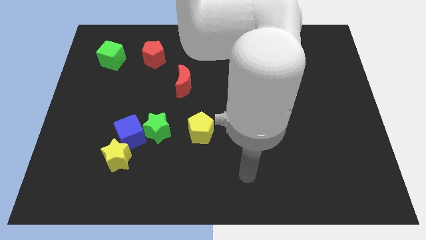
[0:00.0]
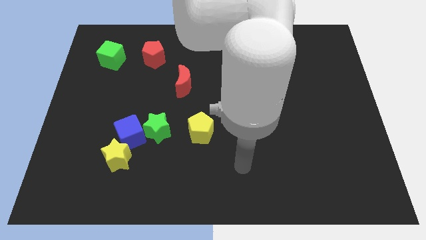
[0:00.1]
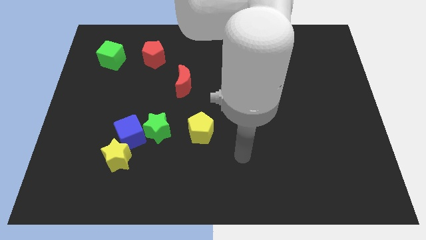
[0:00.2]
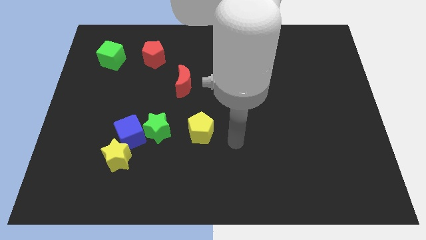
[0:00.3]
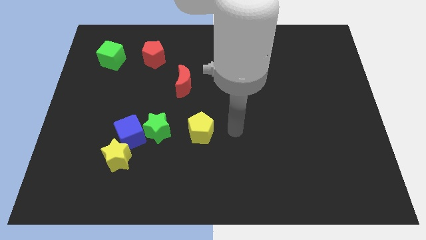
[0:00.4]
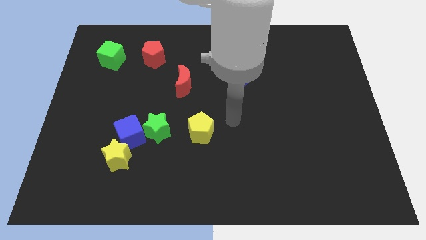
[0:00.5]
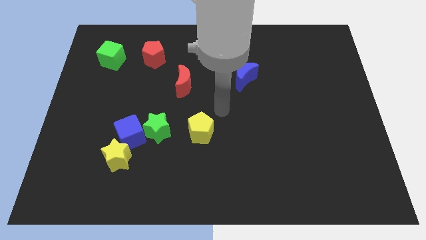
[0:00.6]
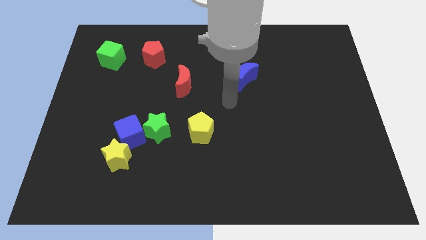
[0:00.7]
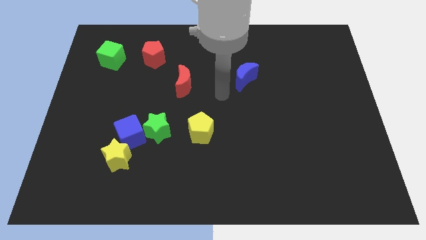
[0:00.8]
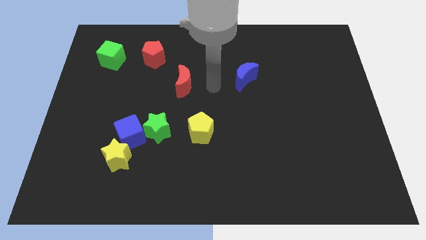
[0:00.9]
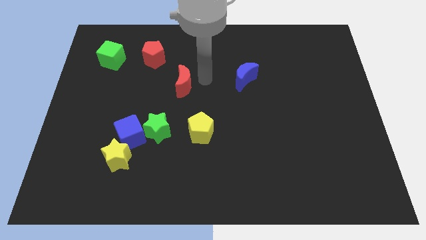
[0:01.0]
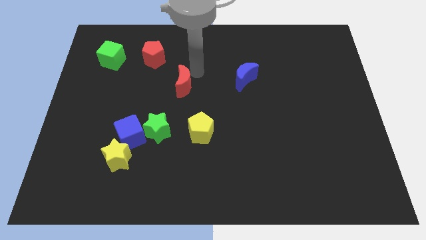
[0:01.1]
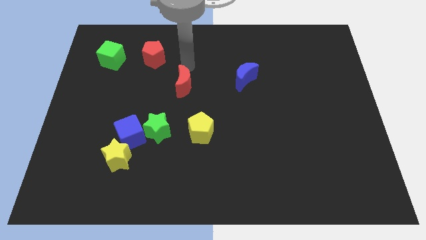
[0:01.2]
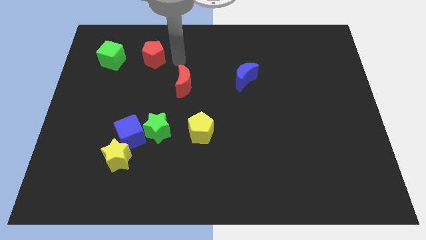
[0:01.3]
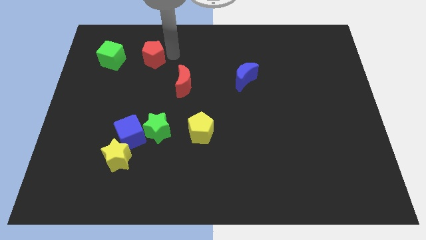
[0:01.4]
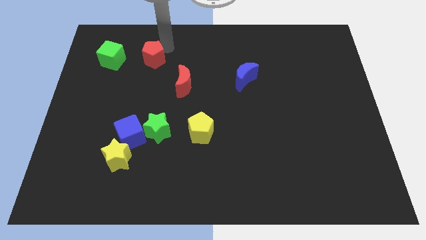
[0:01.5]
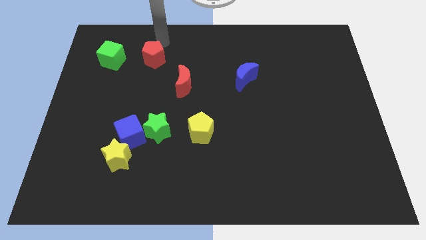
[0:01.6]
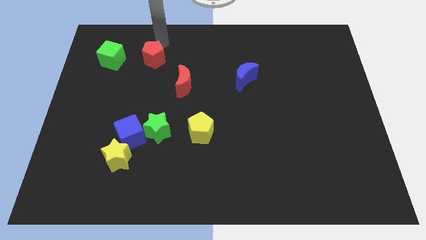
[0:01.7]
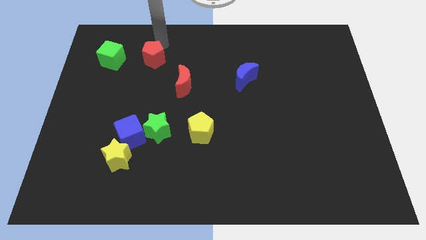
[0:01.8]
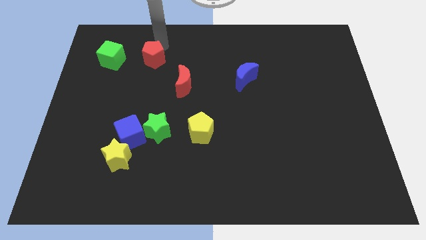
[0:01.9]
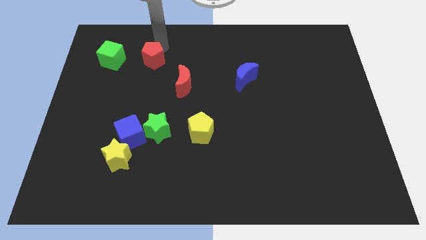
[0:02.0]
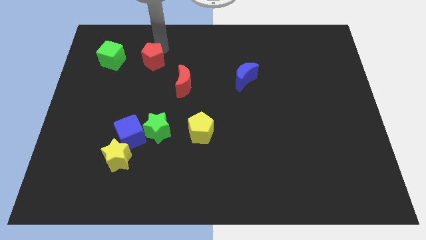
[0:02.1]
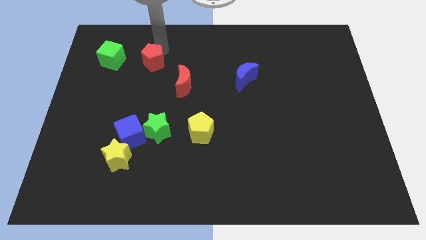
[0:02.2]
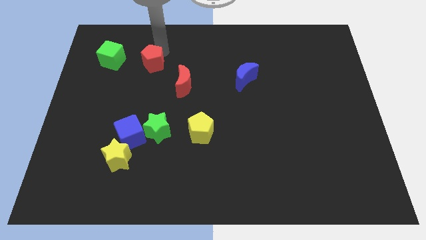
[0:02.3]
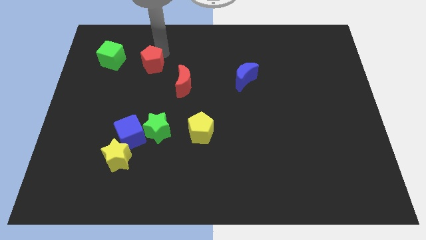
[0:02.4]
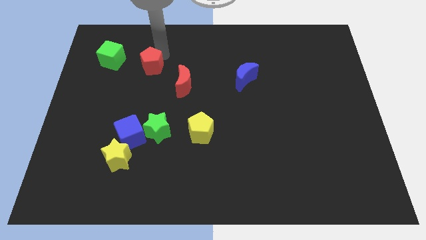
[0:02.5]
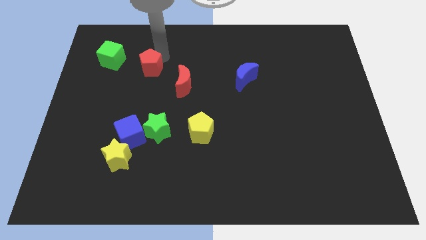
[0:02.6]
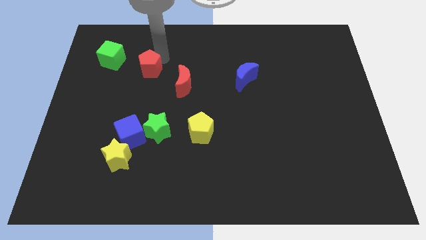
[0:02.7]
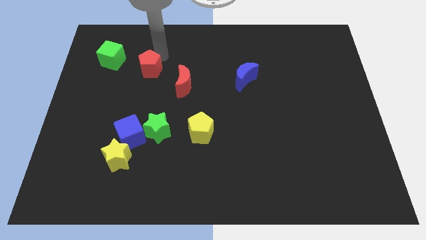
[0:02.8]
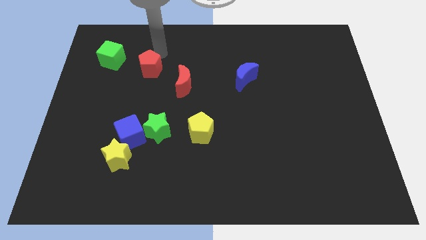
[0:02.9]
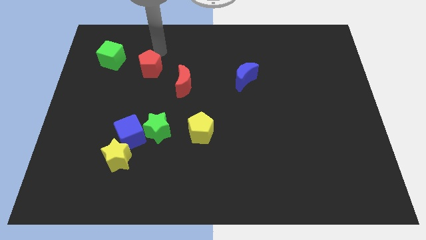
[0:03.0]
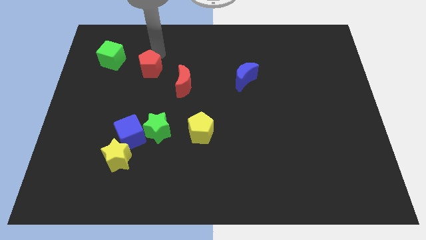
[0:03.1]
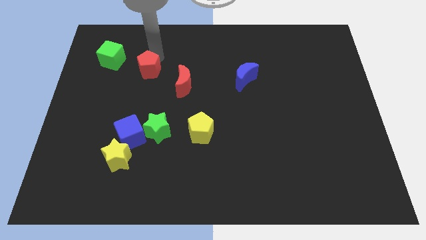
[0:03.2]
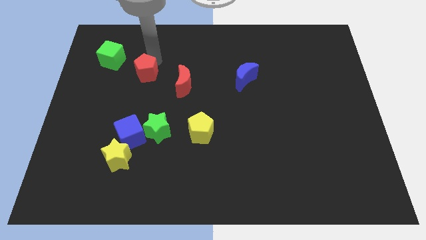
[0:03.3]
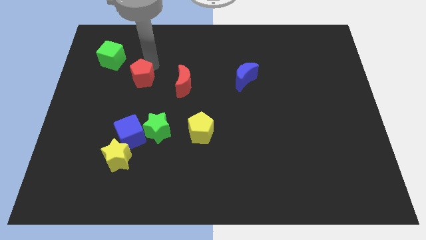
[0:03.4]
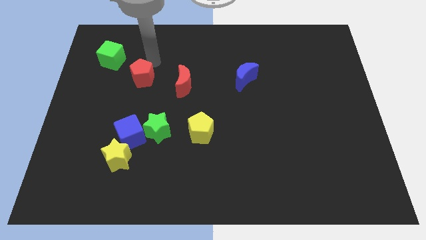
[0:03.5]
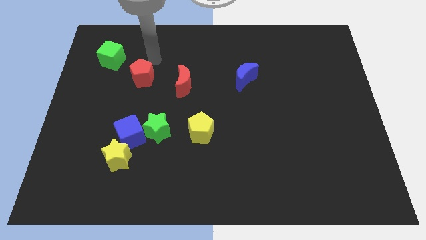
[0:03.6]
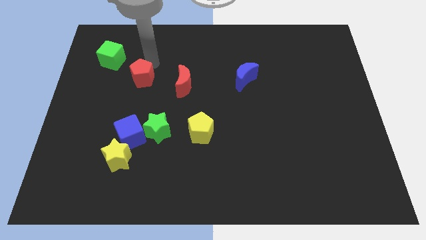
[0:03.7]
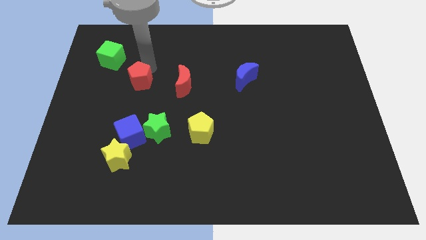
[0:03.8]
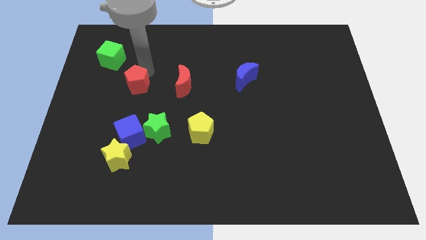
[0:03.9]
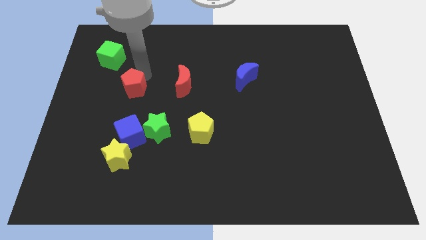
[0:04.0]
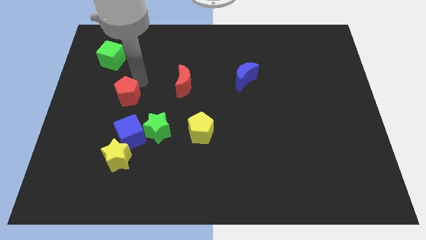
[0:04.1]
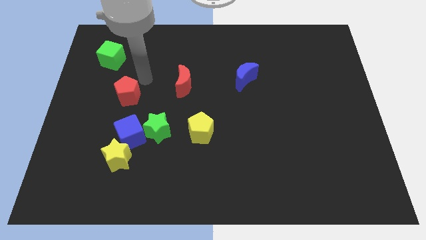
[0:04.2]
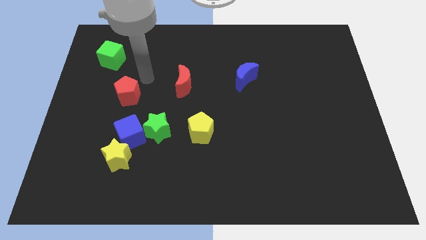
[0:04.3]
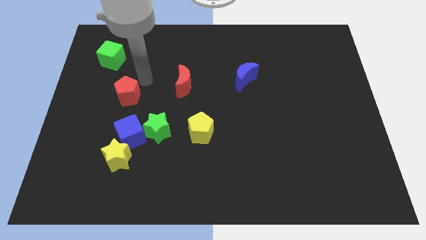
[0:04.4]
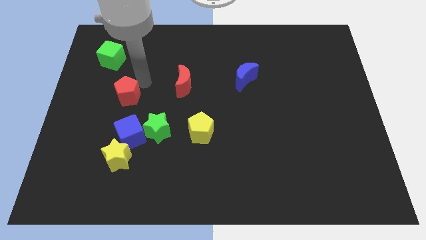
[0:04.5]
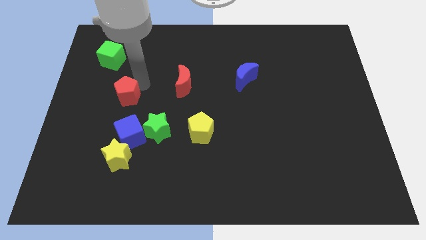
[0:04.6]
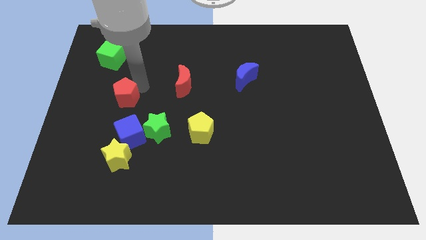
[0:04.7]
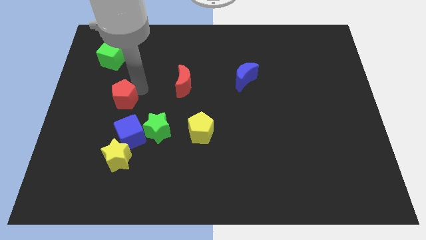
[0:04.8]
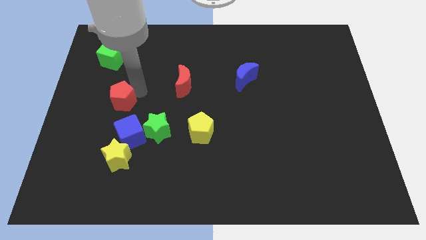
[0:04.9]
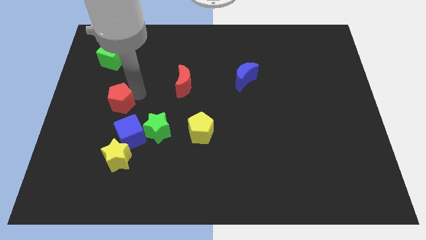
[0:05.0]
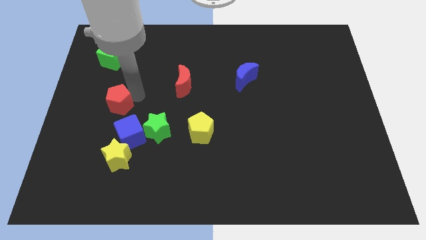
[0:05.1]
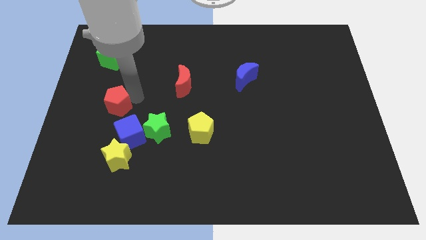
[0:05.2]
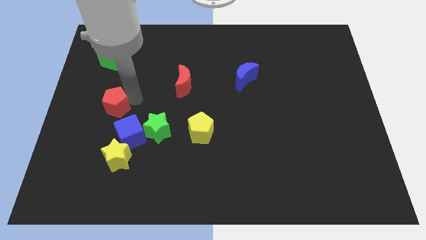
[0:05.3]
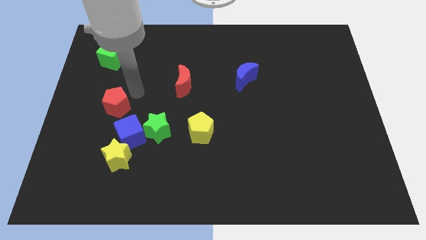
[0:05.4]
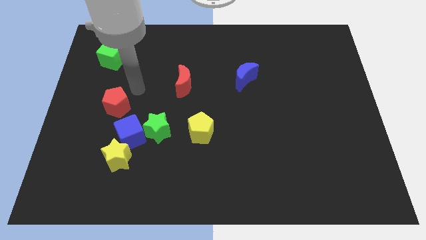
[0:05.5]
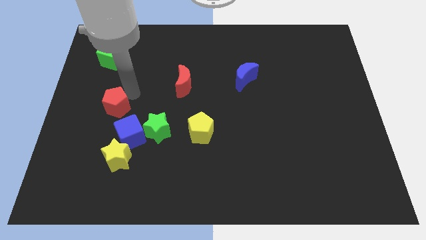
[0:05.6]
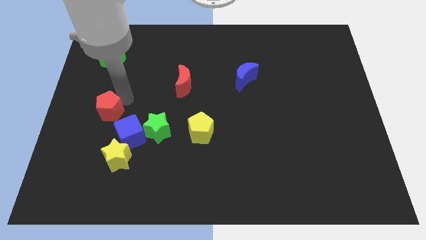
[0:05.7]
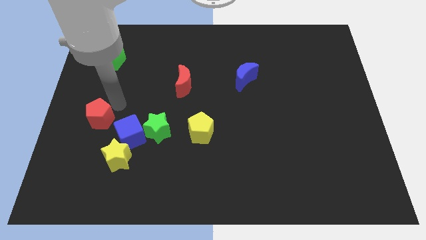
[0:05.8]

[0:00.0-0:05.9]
push the red pentagon to the left side of the blue cube

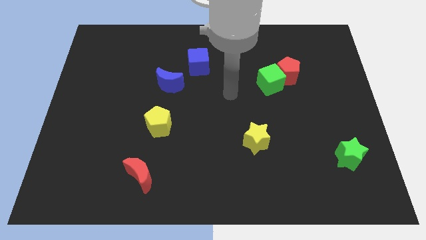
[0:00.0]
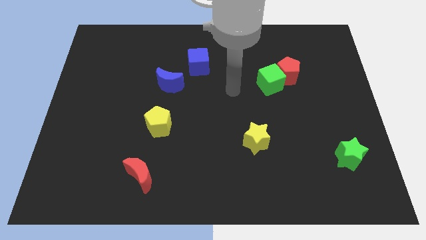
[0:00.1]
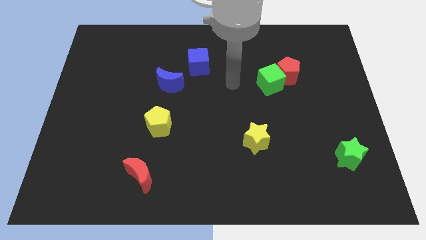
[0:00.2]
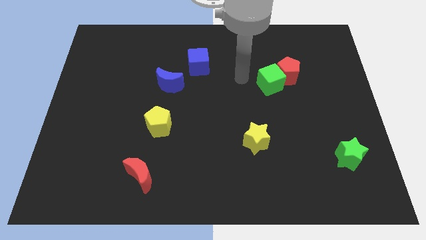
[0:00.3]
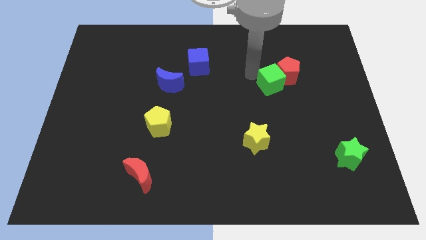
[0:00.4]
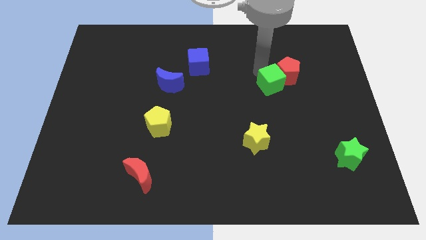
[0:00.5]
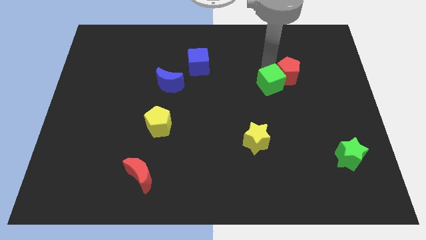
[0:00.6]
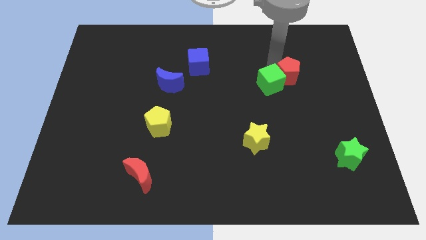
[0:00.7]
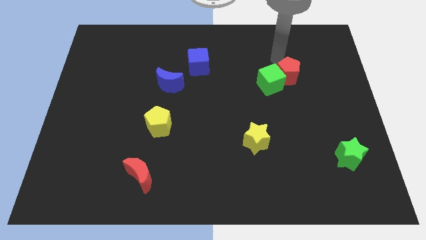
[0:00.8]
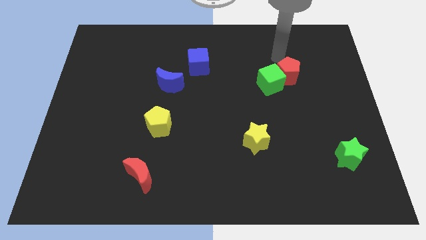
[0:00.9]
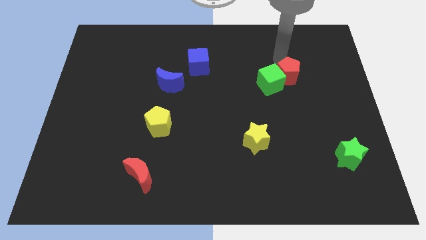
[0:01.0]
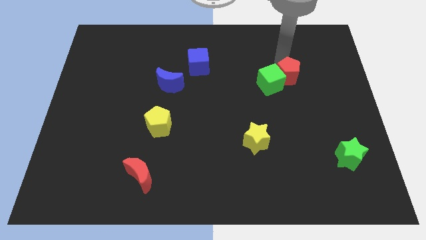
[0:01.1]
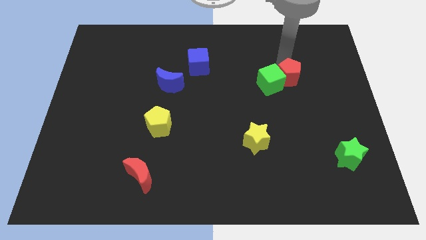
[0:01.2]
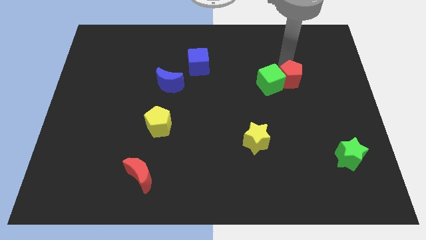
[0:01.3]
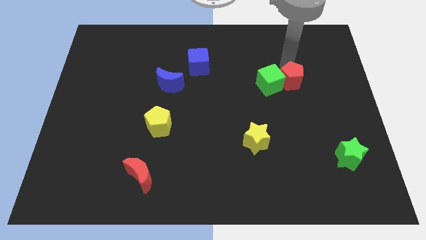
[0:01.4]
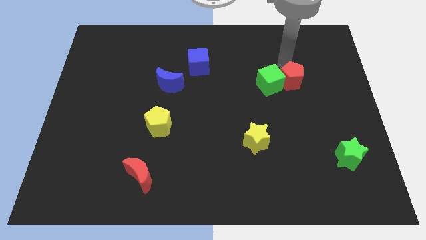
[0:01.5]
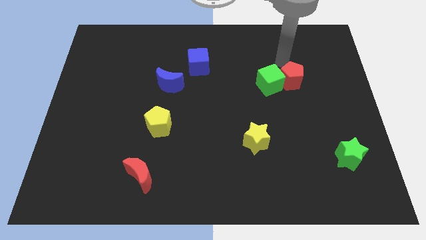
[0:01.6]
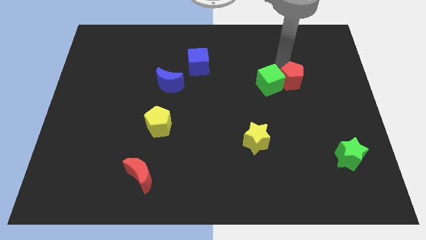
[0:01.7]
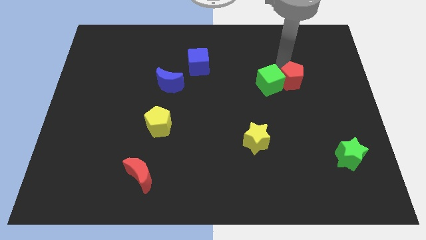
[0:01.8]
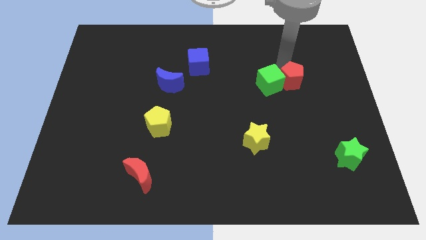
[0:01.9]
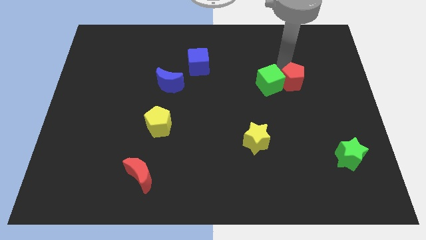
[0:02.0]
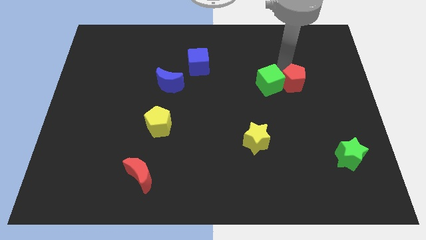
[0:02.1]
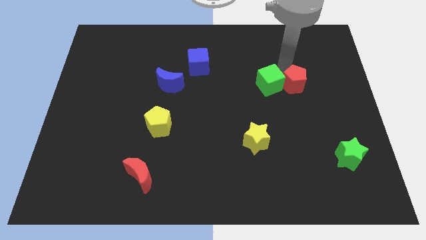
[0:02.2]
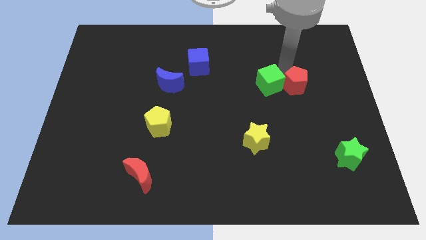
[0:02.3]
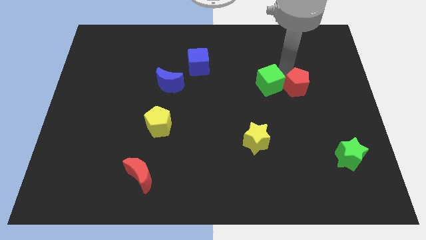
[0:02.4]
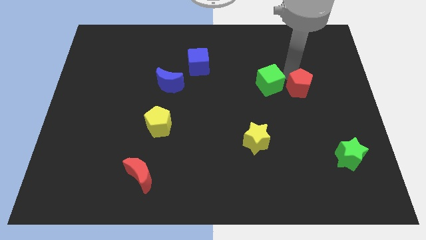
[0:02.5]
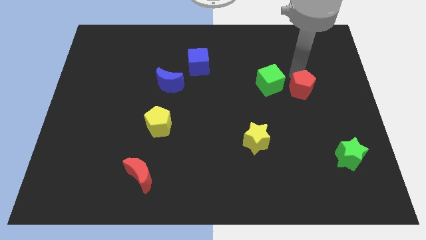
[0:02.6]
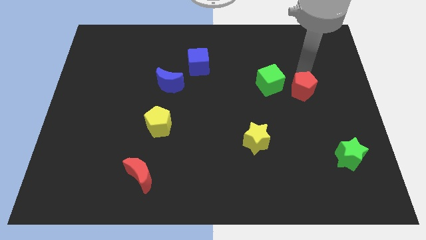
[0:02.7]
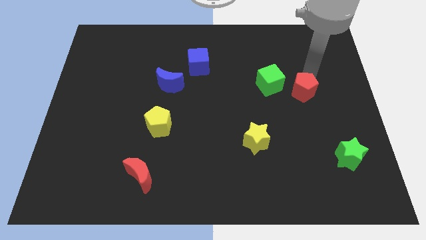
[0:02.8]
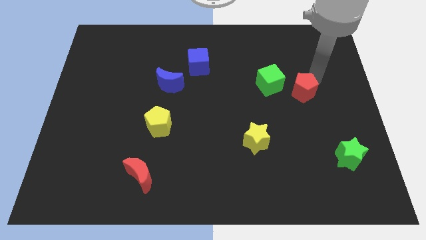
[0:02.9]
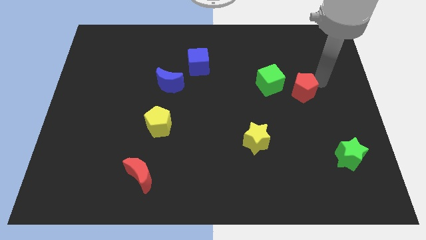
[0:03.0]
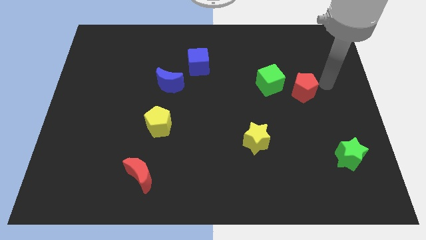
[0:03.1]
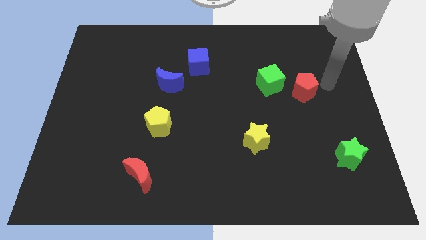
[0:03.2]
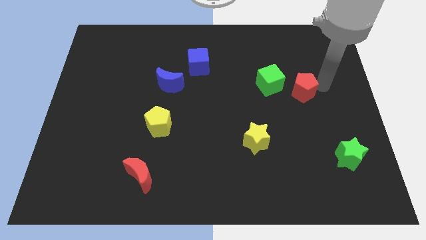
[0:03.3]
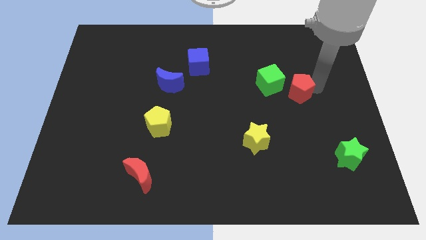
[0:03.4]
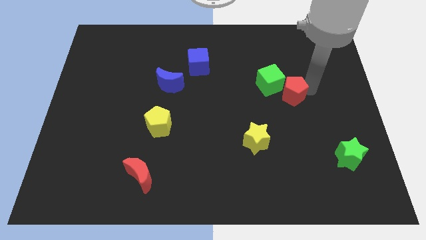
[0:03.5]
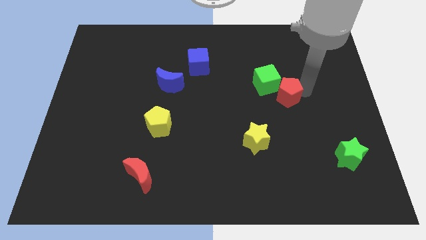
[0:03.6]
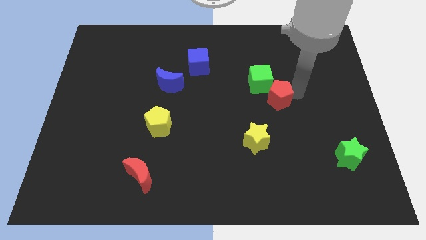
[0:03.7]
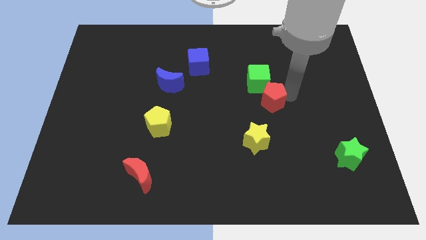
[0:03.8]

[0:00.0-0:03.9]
push the red pentagon to the top of the yellow star
